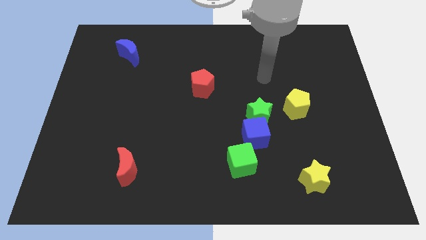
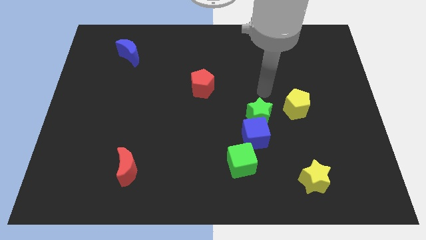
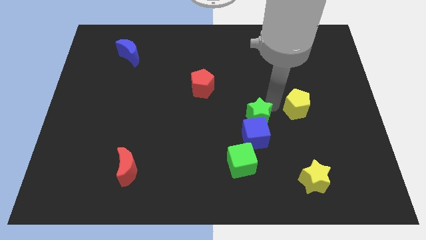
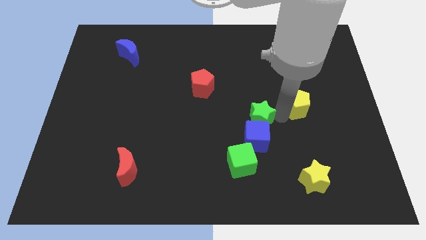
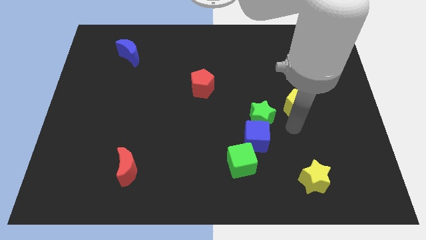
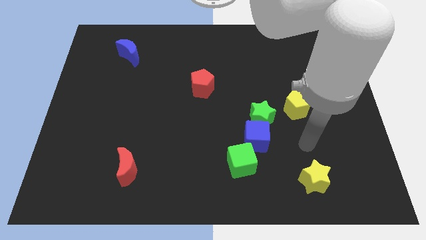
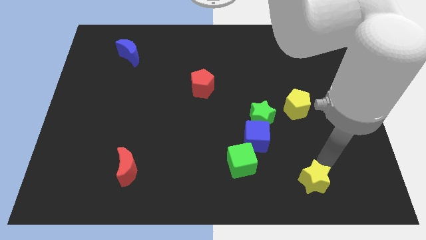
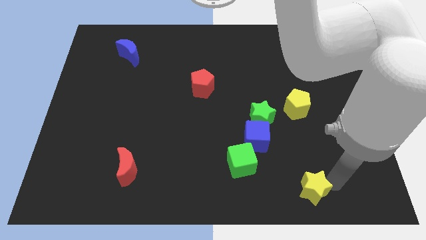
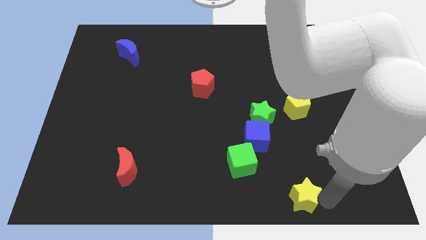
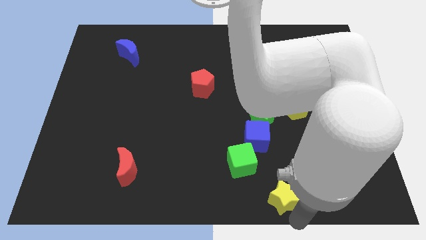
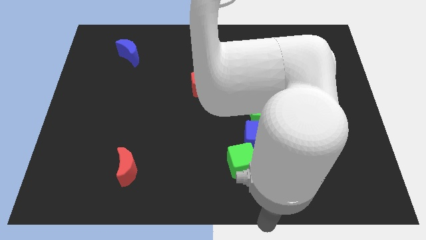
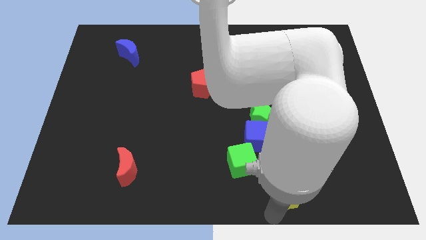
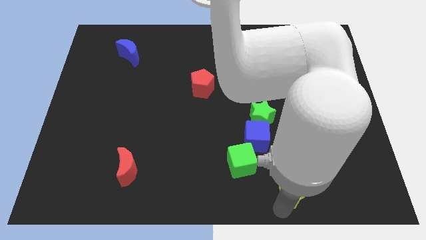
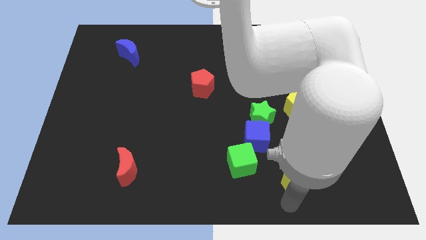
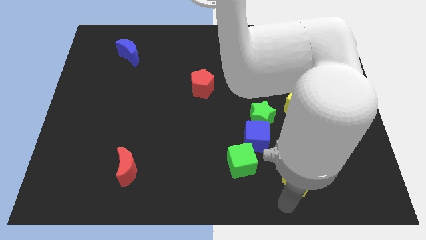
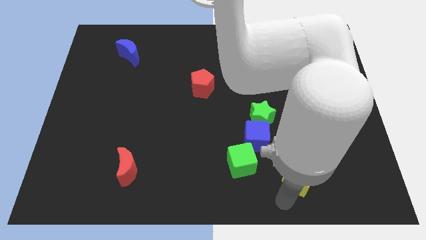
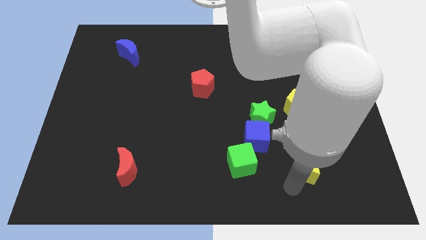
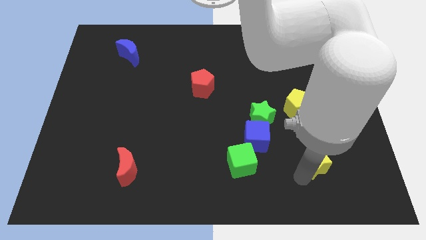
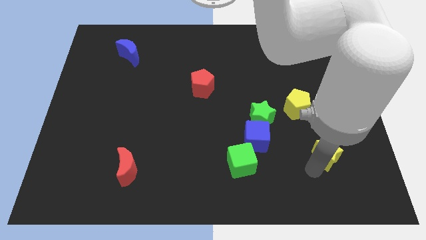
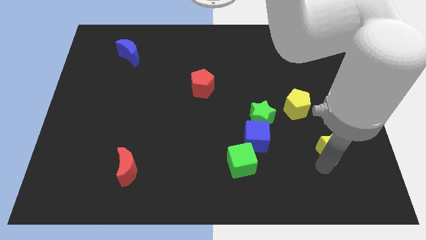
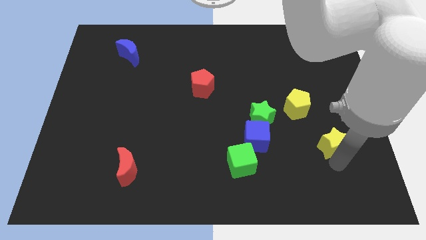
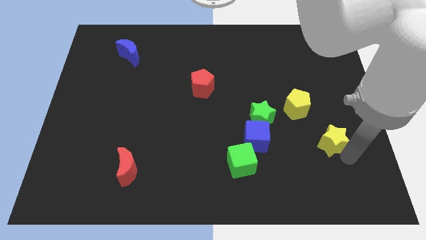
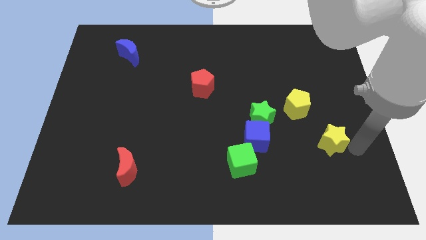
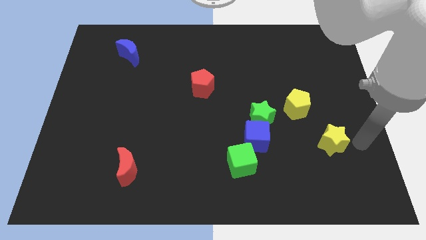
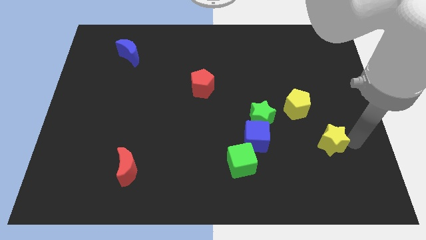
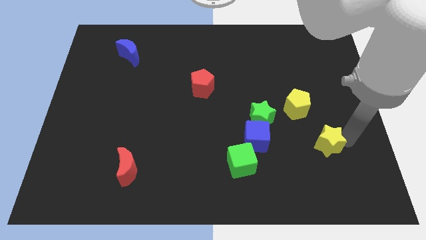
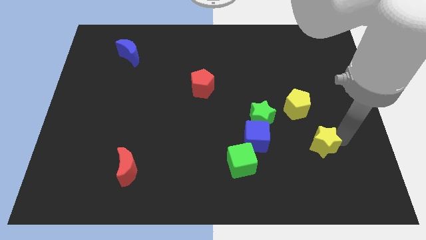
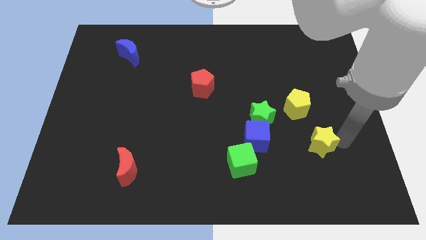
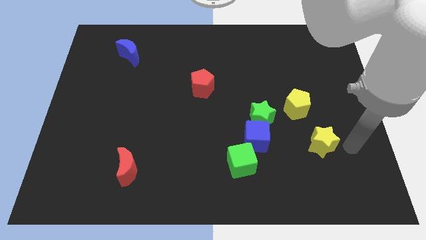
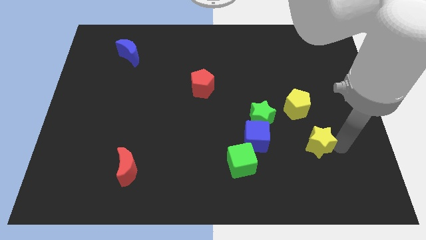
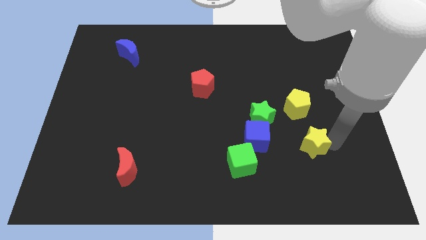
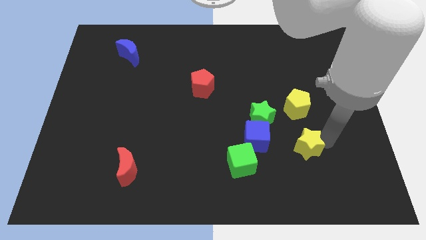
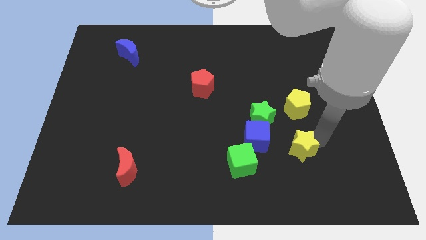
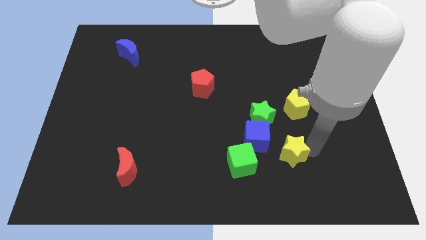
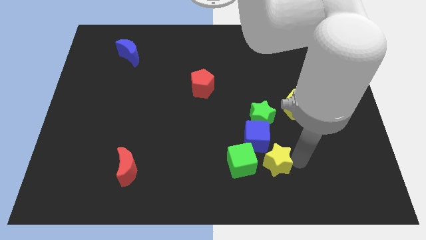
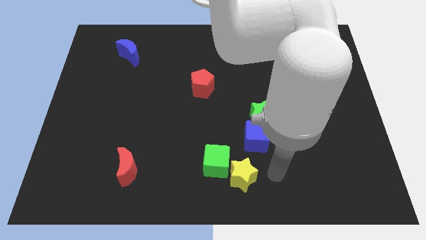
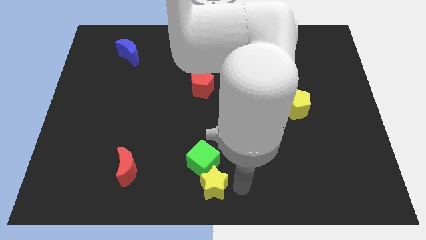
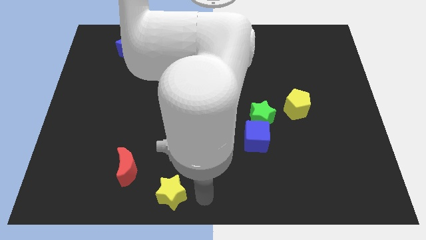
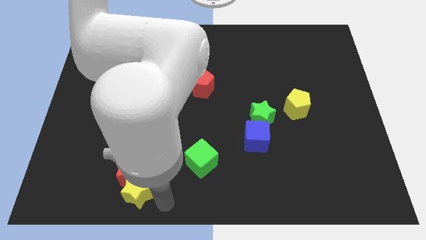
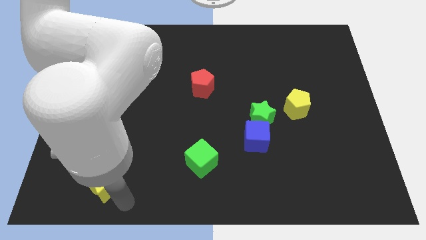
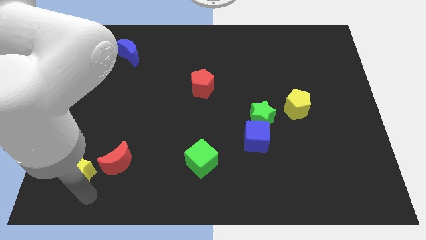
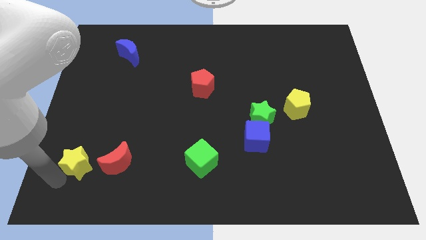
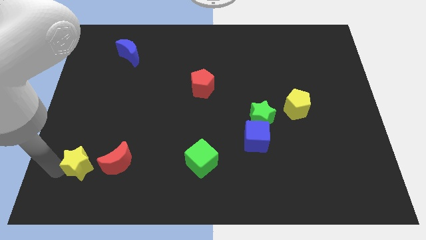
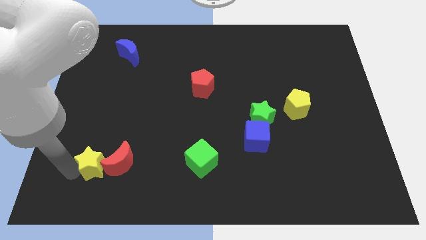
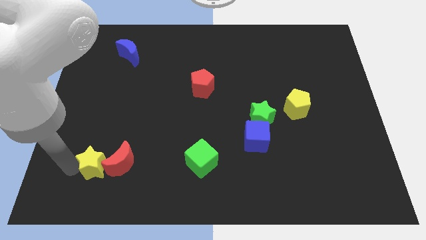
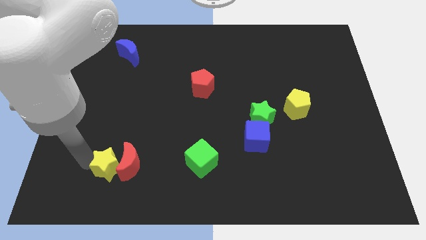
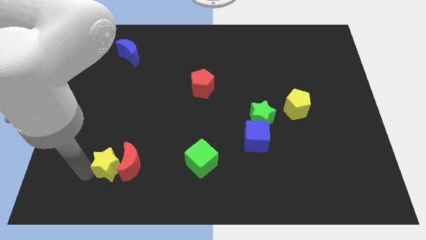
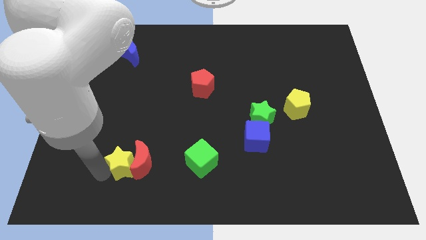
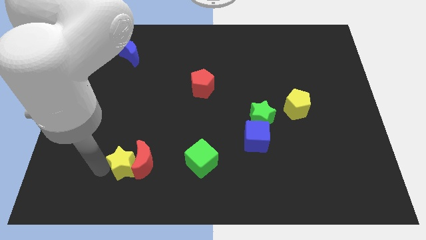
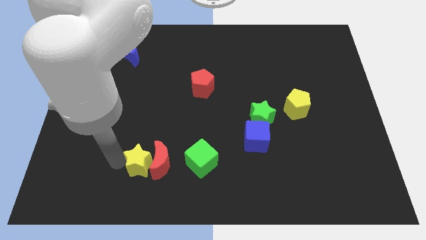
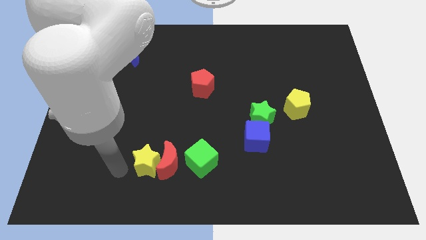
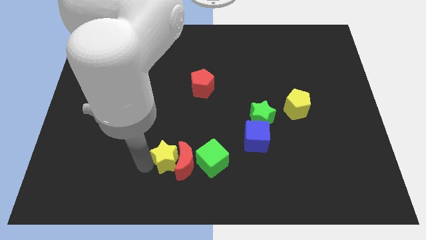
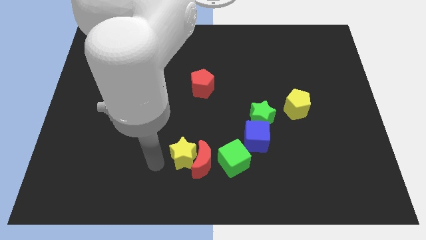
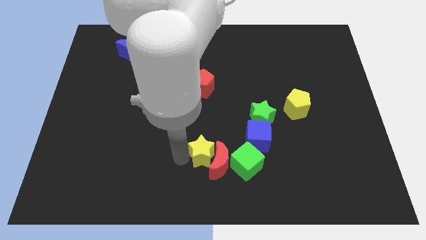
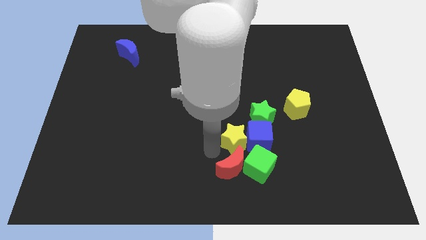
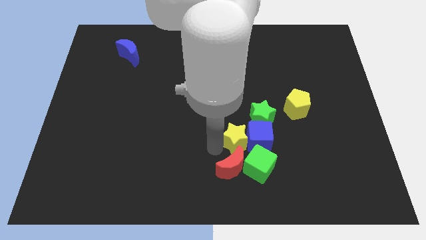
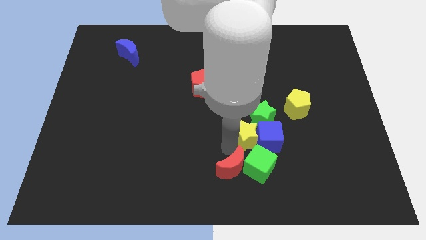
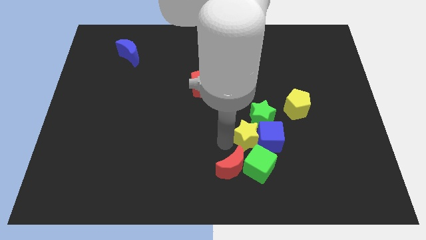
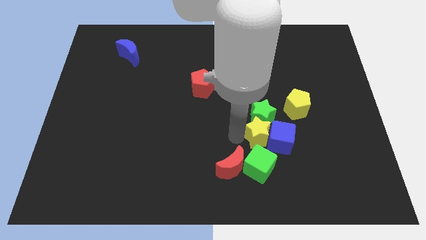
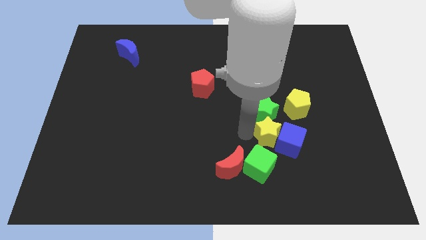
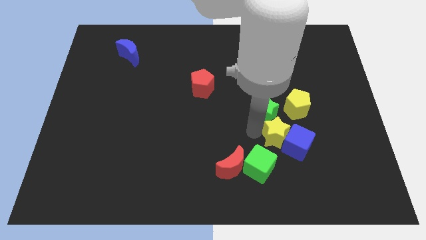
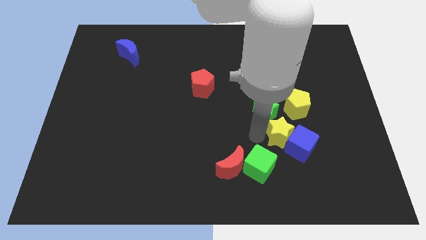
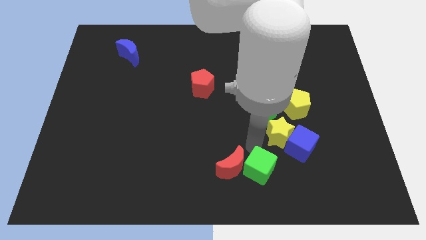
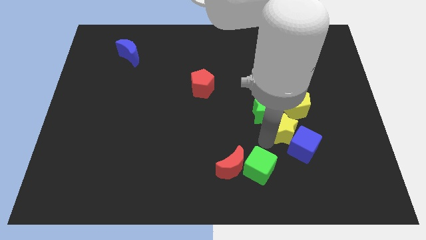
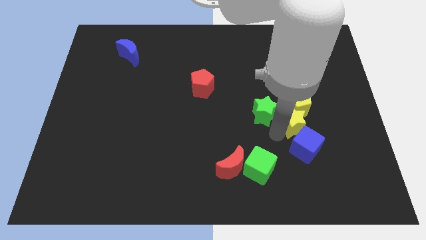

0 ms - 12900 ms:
put the yellow star close to the yellow pentagon
